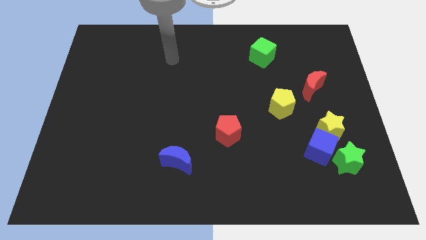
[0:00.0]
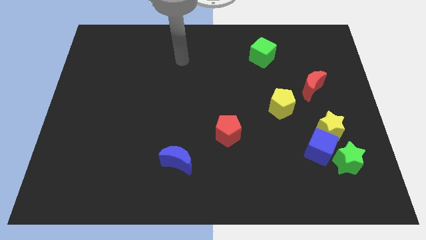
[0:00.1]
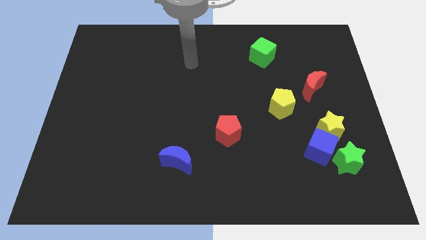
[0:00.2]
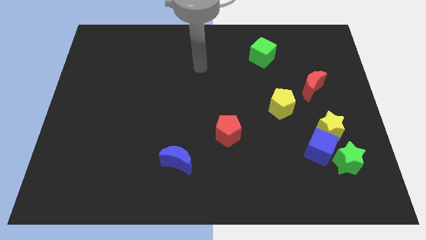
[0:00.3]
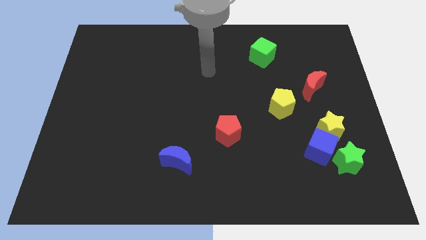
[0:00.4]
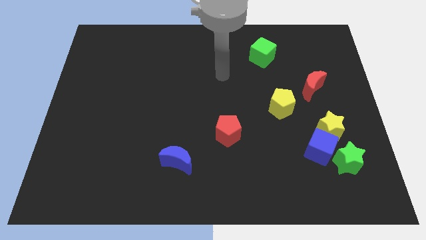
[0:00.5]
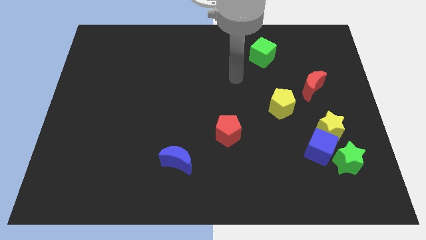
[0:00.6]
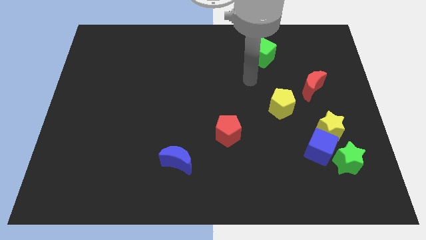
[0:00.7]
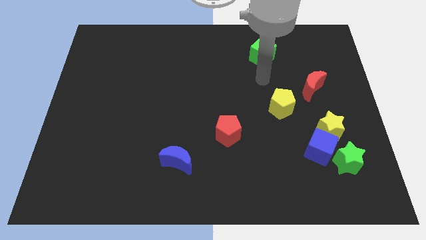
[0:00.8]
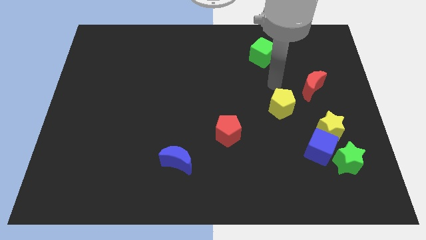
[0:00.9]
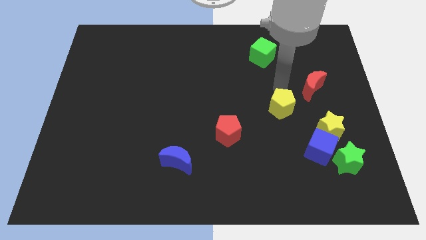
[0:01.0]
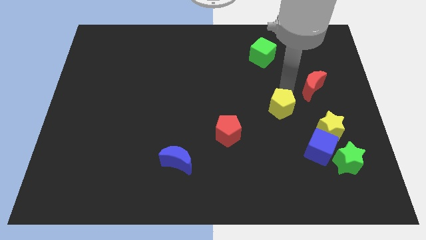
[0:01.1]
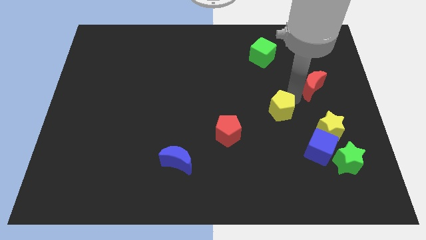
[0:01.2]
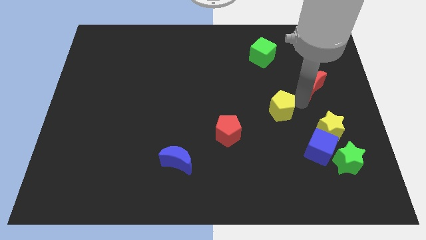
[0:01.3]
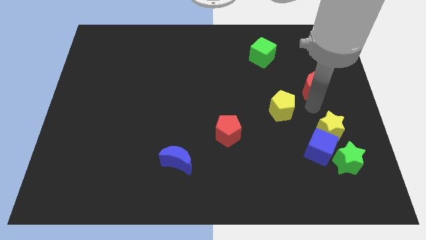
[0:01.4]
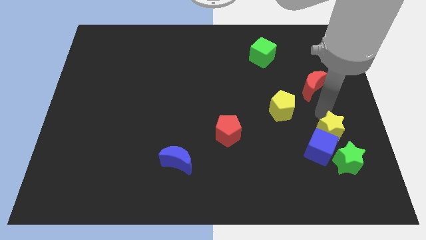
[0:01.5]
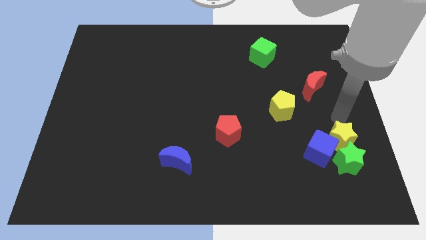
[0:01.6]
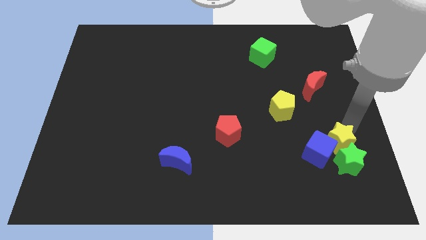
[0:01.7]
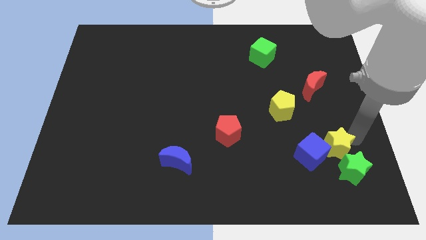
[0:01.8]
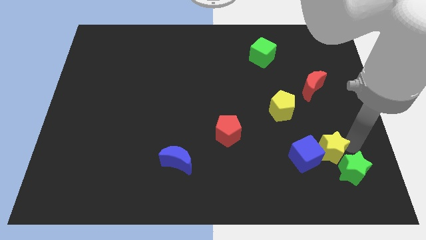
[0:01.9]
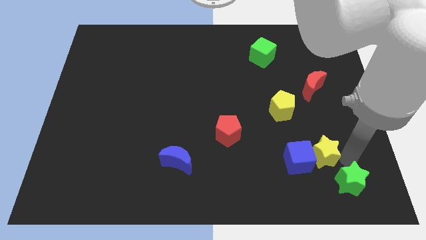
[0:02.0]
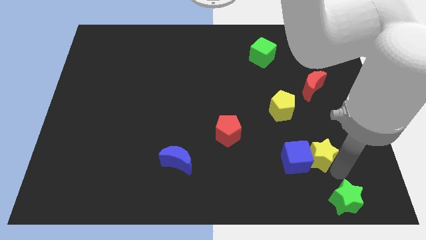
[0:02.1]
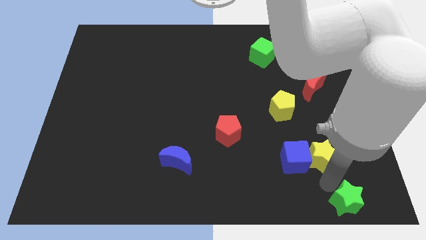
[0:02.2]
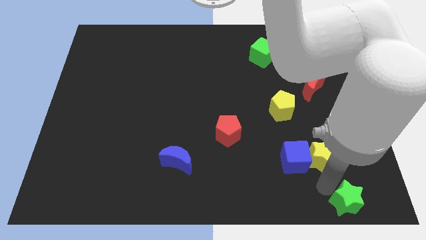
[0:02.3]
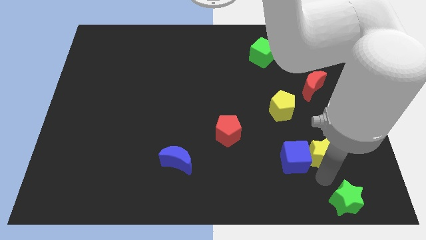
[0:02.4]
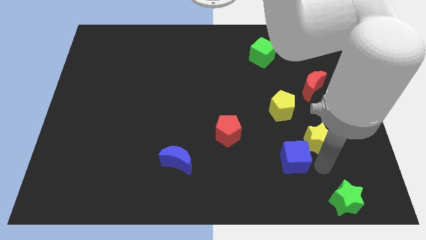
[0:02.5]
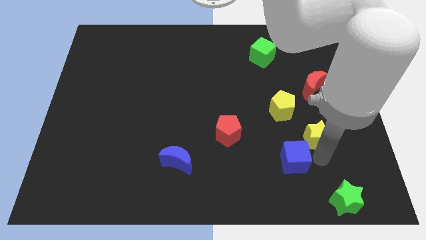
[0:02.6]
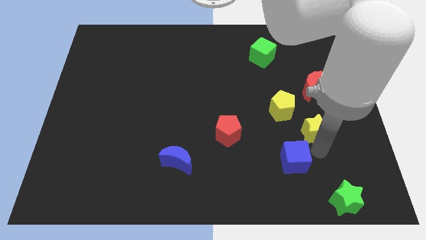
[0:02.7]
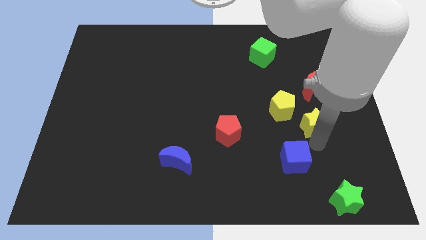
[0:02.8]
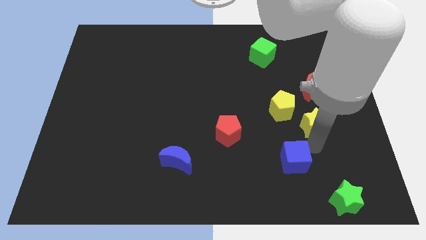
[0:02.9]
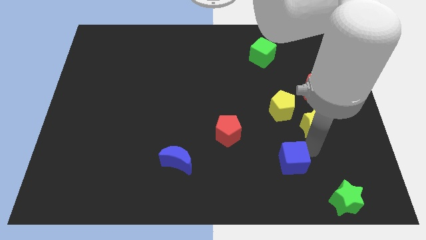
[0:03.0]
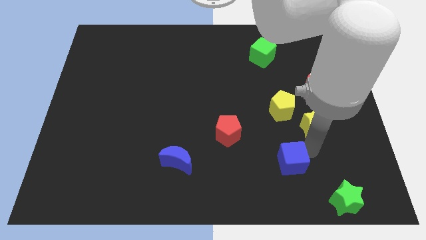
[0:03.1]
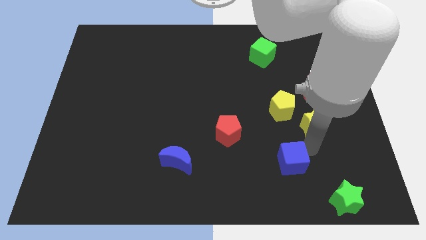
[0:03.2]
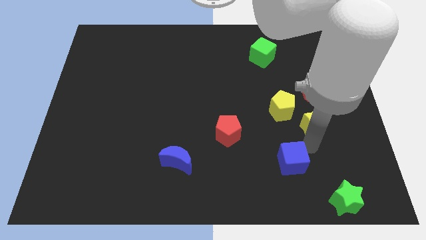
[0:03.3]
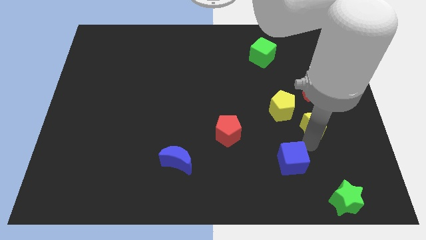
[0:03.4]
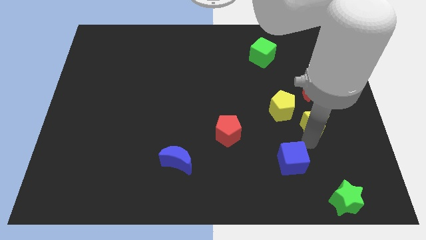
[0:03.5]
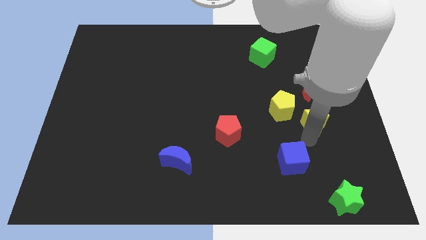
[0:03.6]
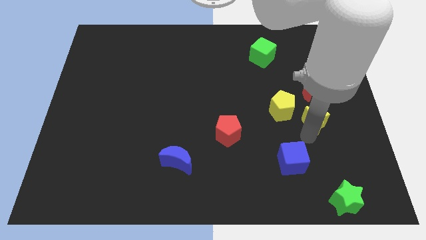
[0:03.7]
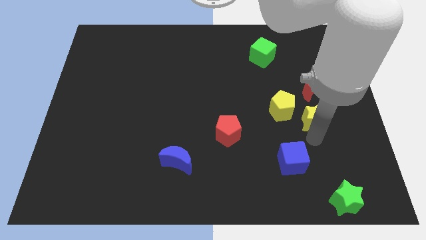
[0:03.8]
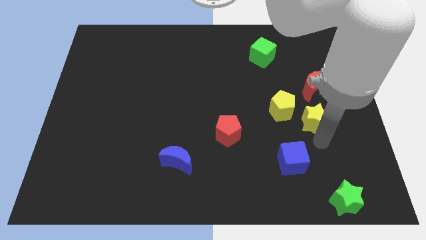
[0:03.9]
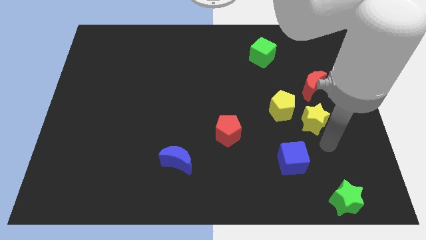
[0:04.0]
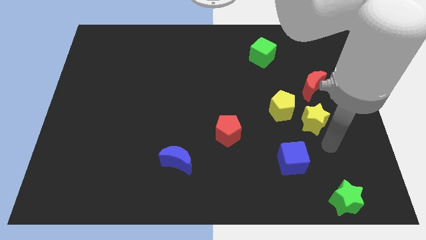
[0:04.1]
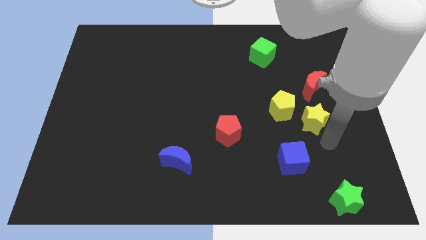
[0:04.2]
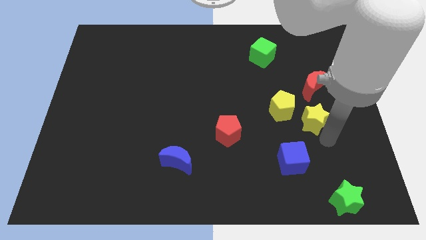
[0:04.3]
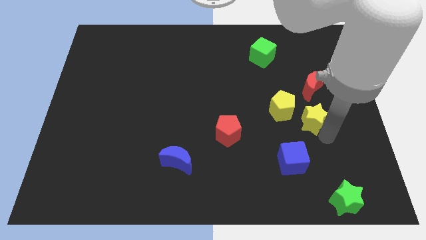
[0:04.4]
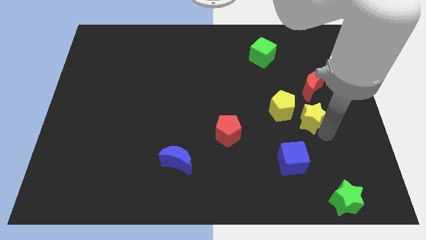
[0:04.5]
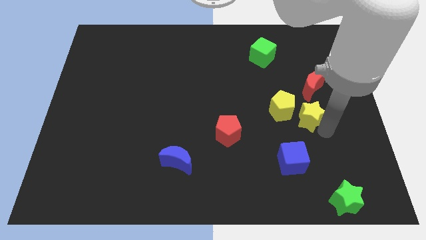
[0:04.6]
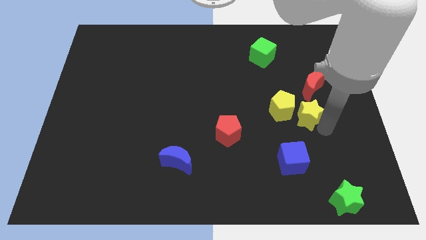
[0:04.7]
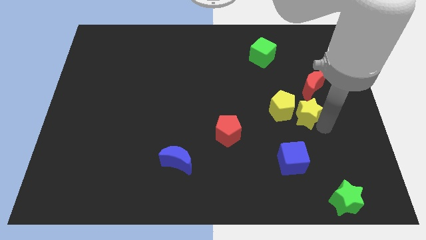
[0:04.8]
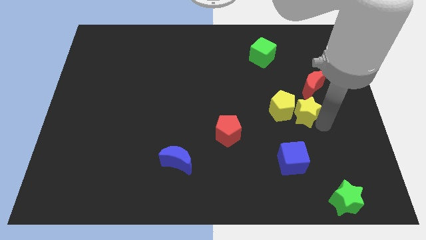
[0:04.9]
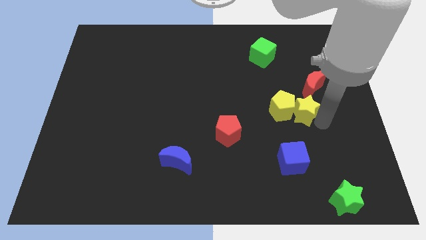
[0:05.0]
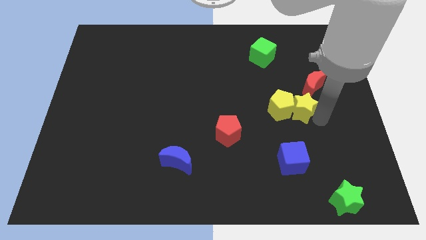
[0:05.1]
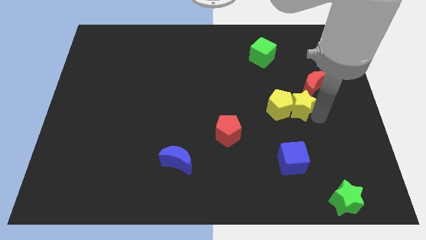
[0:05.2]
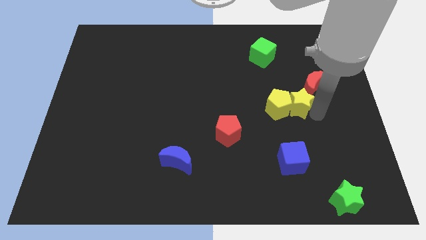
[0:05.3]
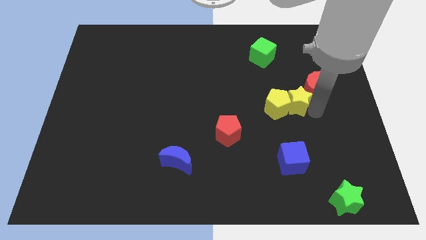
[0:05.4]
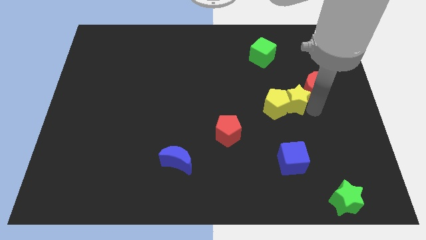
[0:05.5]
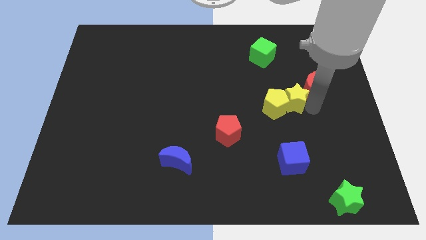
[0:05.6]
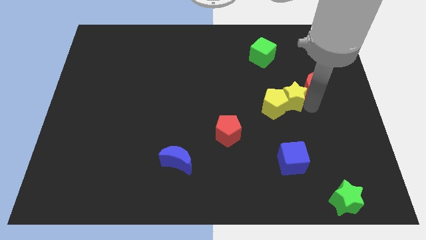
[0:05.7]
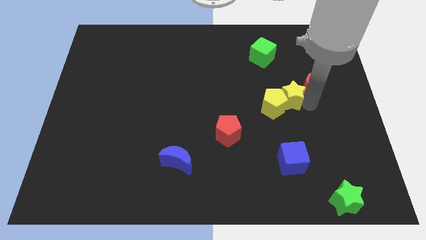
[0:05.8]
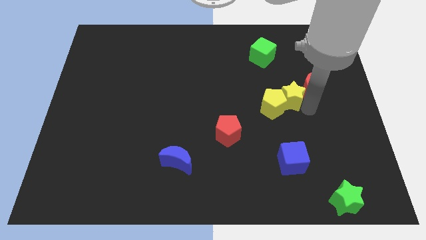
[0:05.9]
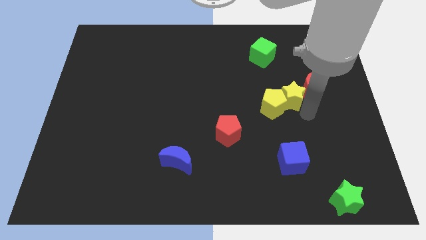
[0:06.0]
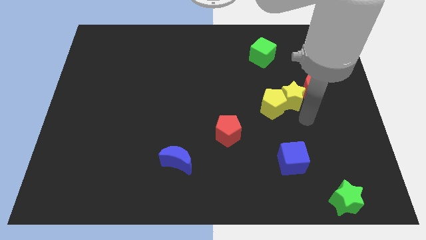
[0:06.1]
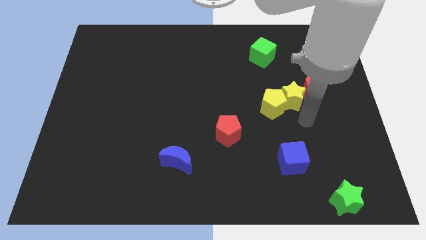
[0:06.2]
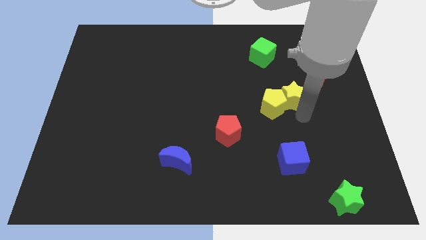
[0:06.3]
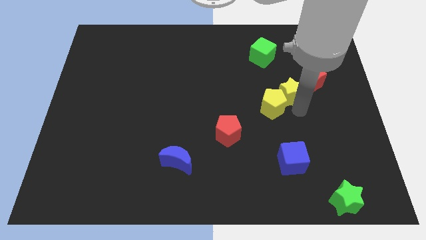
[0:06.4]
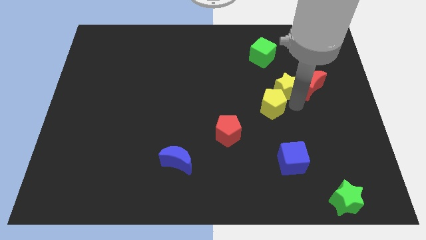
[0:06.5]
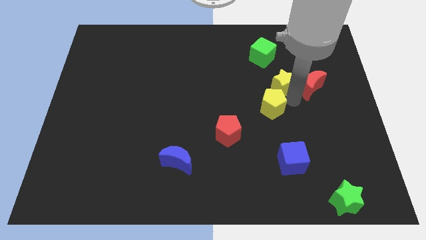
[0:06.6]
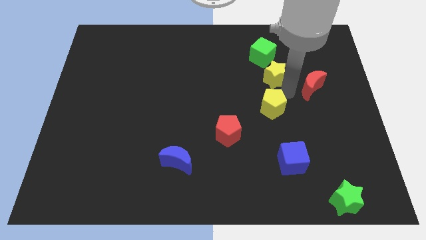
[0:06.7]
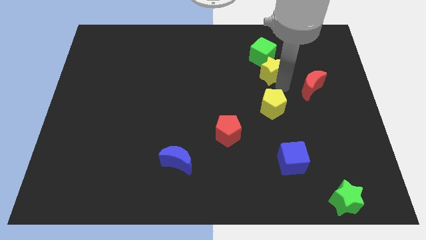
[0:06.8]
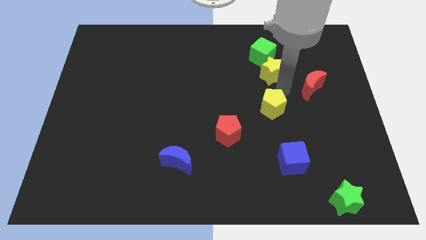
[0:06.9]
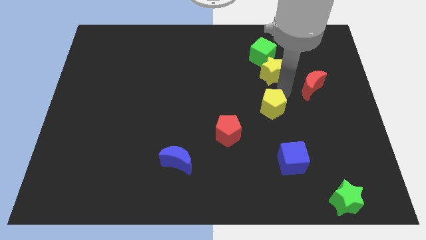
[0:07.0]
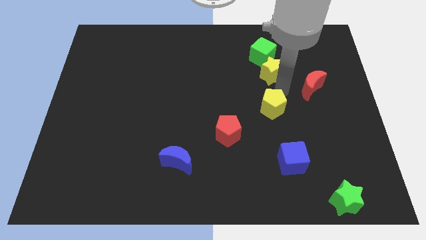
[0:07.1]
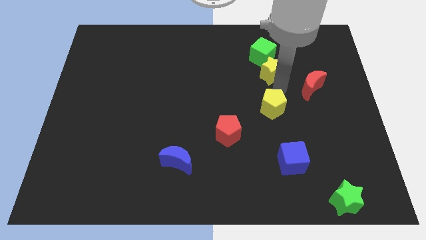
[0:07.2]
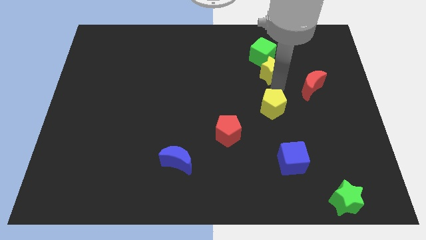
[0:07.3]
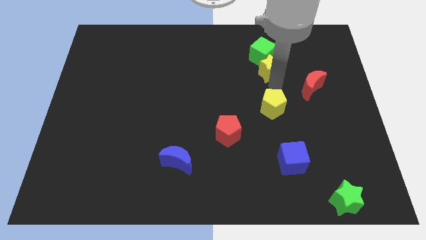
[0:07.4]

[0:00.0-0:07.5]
push the yellow star next to the green cube

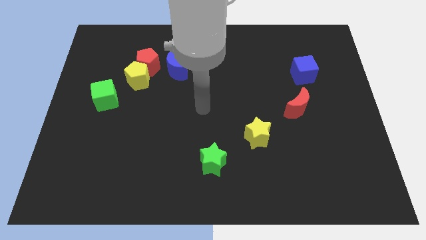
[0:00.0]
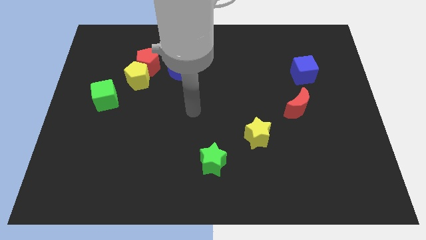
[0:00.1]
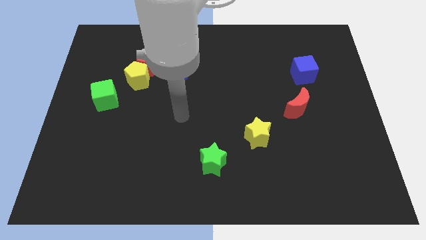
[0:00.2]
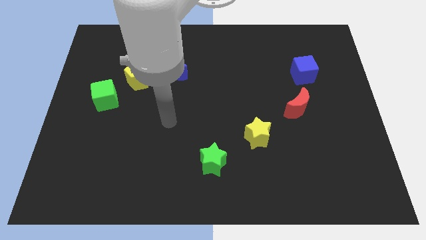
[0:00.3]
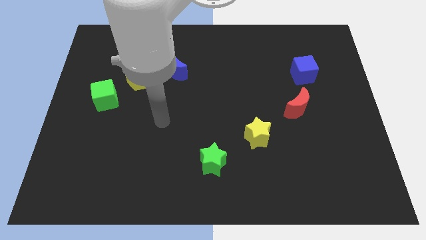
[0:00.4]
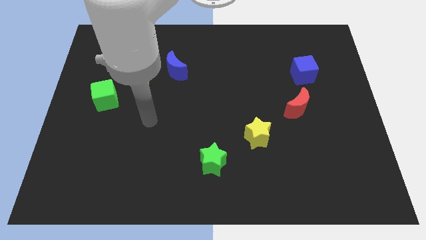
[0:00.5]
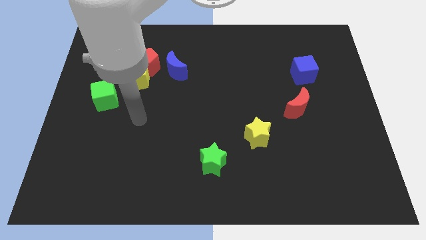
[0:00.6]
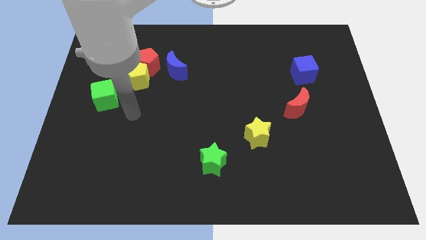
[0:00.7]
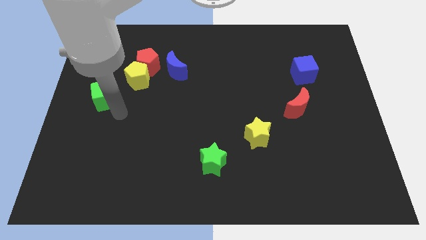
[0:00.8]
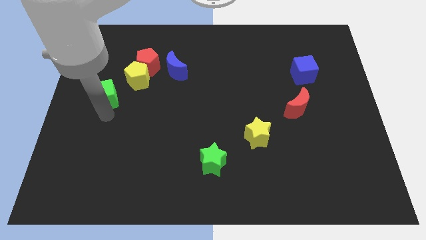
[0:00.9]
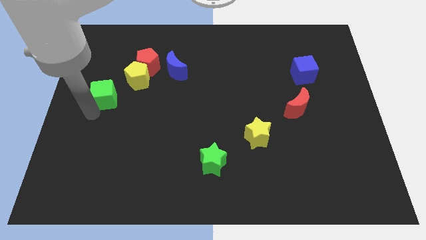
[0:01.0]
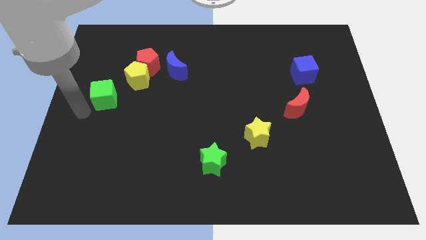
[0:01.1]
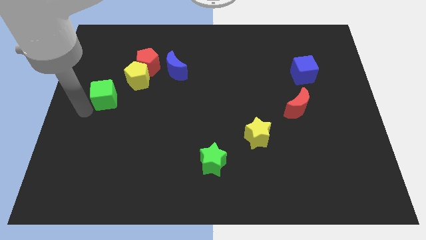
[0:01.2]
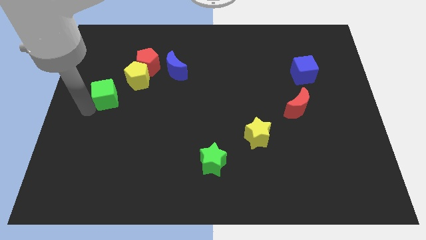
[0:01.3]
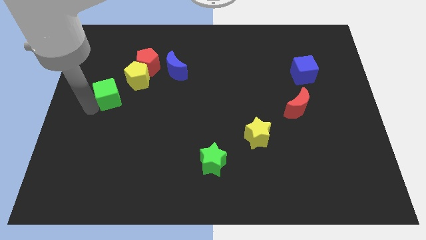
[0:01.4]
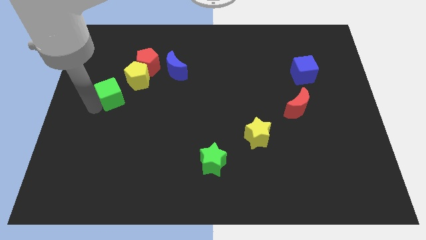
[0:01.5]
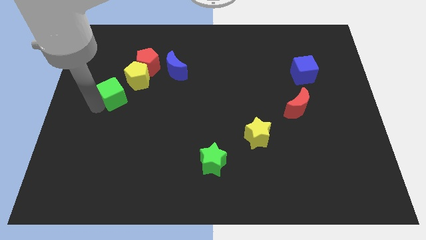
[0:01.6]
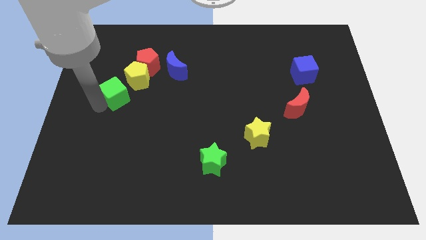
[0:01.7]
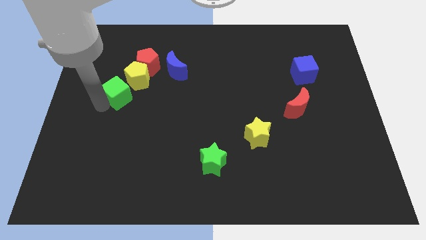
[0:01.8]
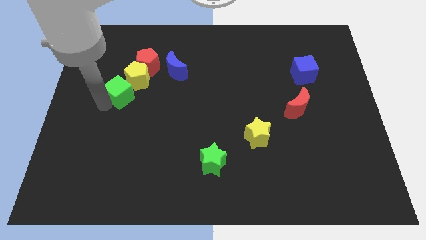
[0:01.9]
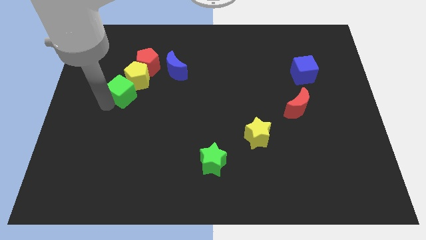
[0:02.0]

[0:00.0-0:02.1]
slide the green cube close to the yellow pentagon
